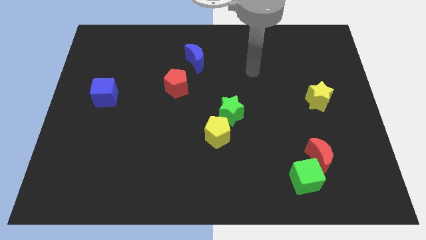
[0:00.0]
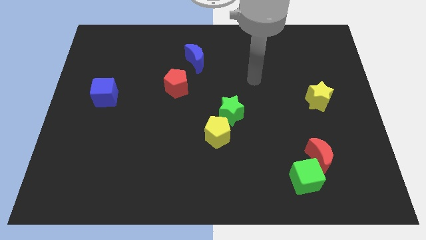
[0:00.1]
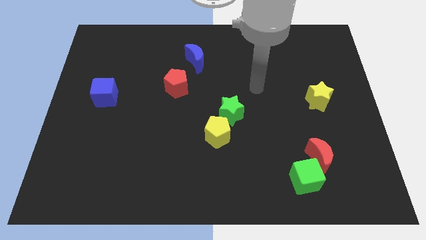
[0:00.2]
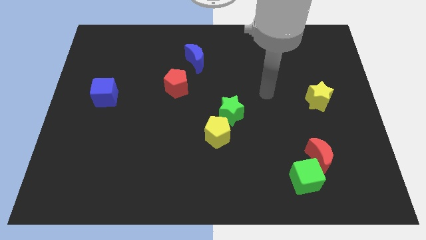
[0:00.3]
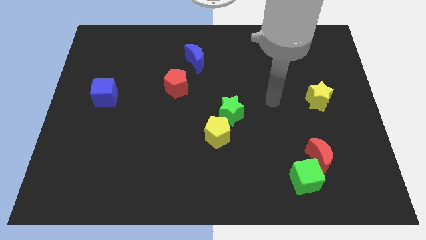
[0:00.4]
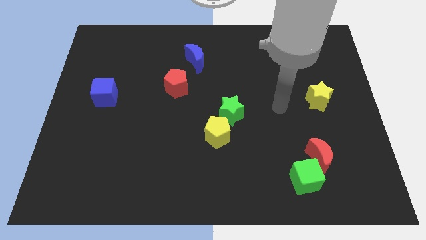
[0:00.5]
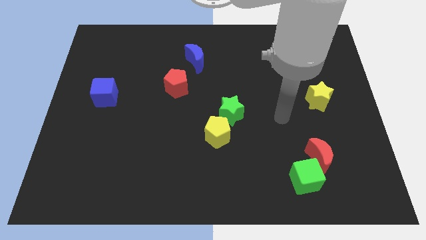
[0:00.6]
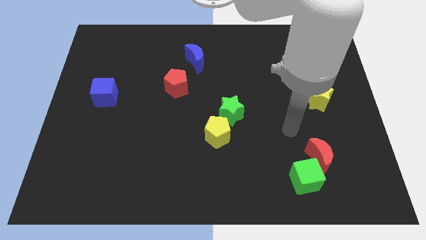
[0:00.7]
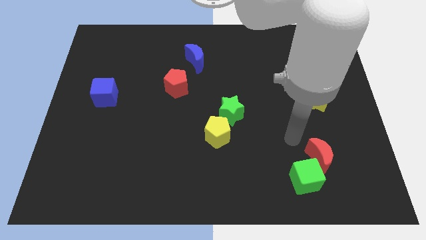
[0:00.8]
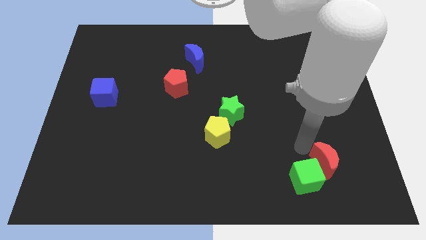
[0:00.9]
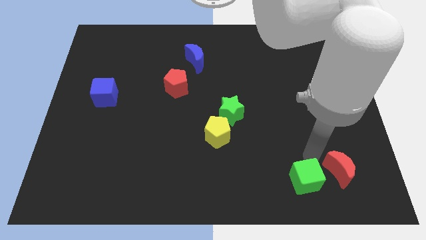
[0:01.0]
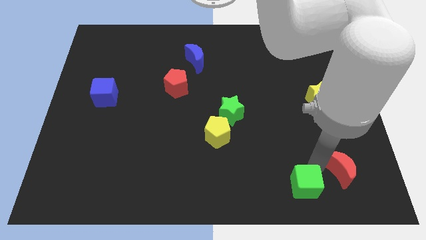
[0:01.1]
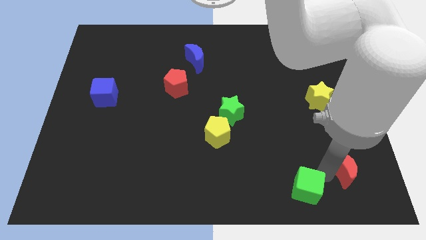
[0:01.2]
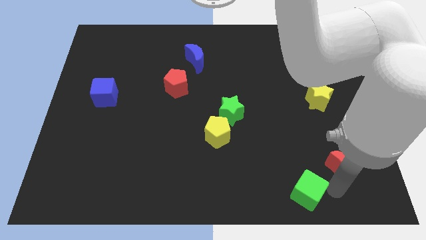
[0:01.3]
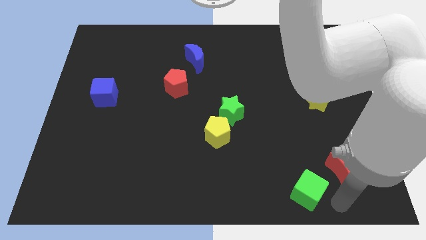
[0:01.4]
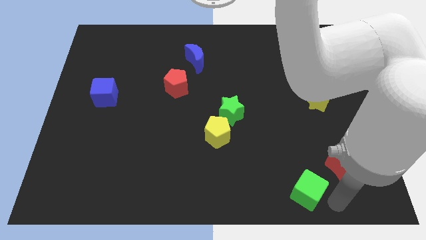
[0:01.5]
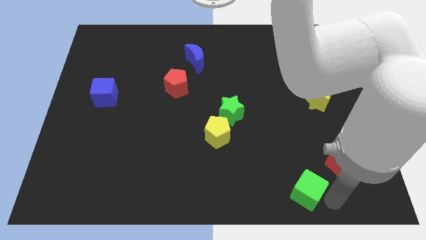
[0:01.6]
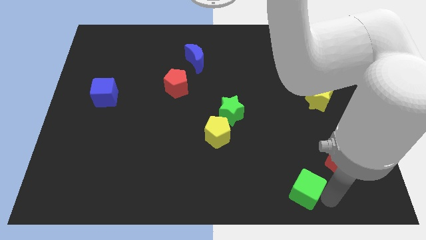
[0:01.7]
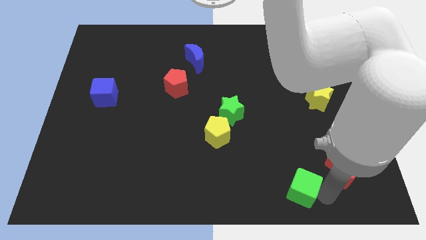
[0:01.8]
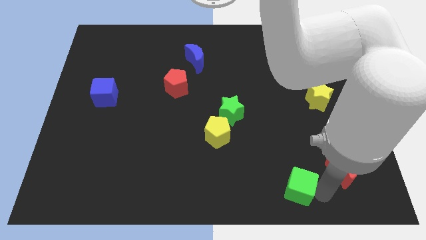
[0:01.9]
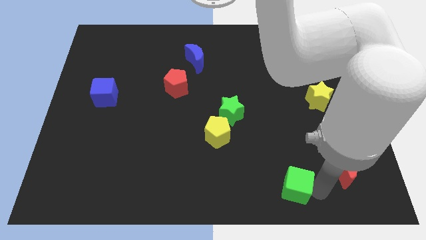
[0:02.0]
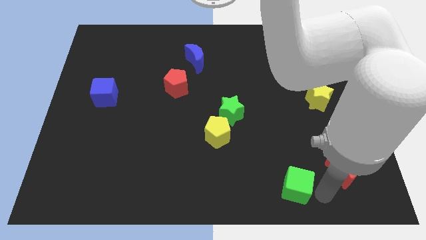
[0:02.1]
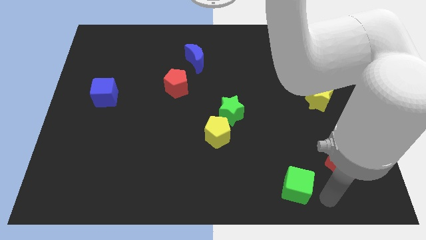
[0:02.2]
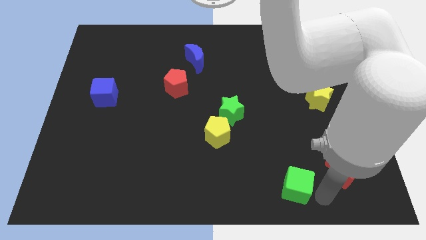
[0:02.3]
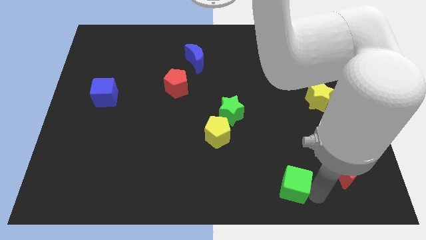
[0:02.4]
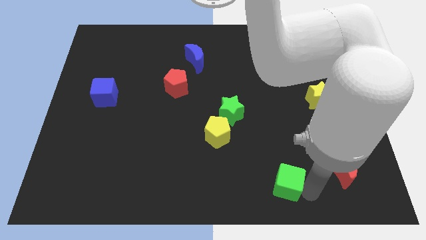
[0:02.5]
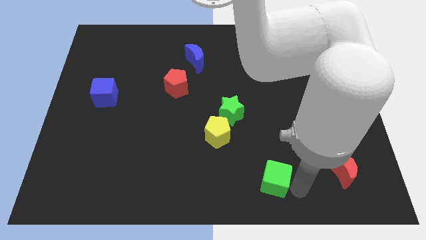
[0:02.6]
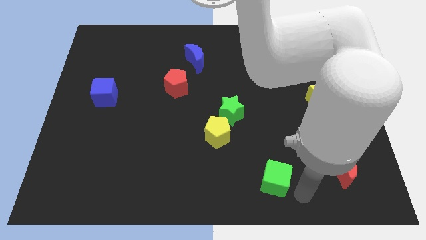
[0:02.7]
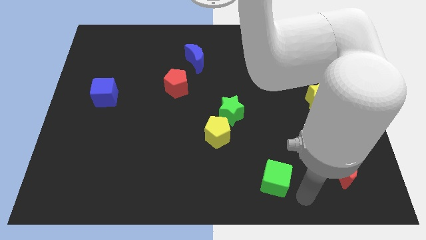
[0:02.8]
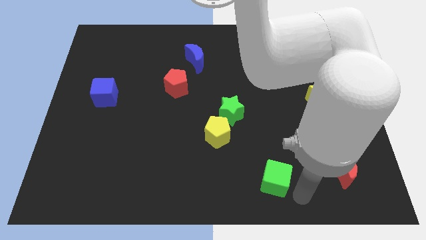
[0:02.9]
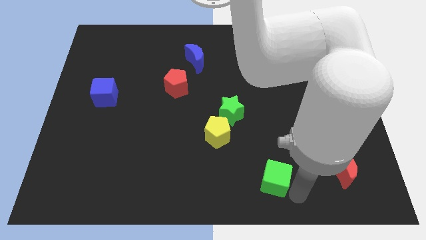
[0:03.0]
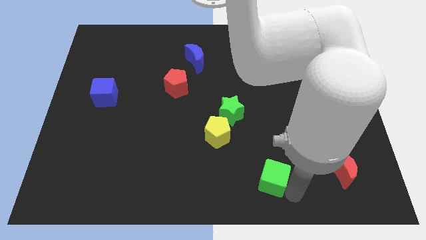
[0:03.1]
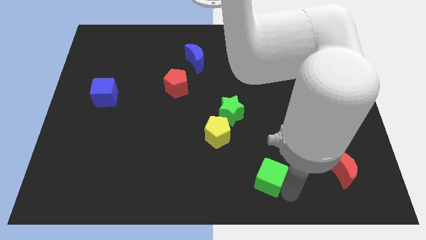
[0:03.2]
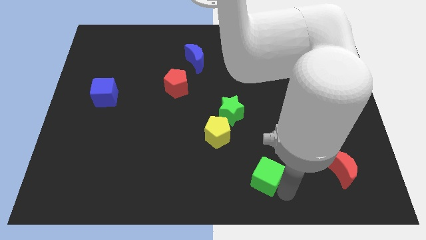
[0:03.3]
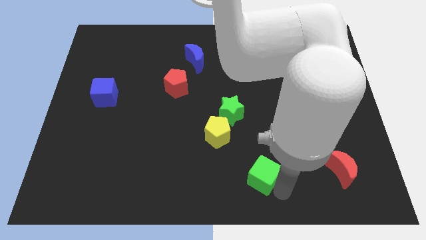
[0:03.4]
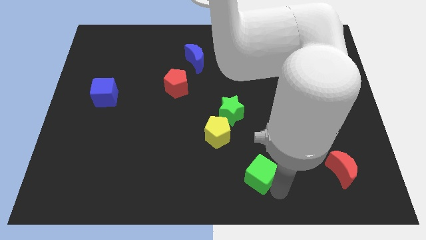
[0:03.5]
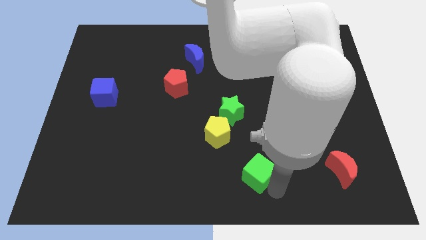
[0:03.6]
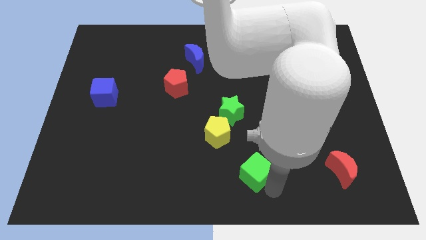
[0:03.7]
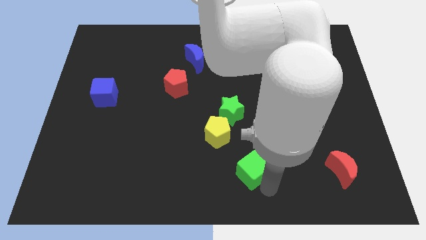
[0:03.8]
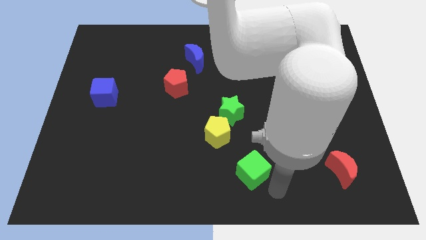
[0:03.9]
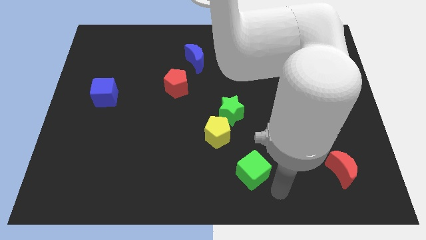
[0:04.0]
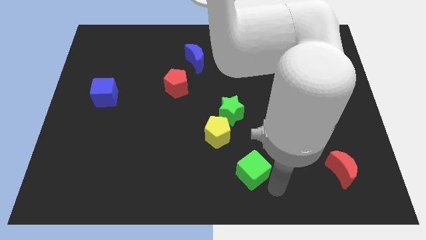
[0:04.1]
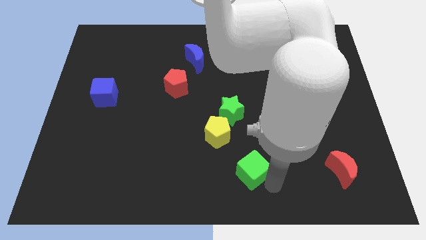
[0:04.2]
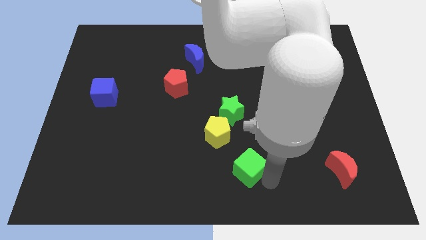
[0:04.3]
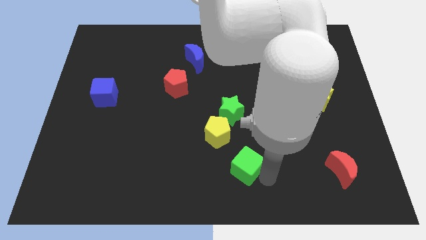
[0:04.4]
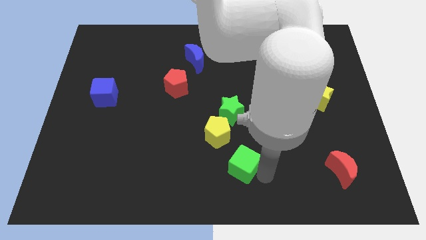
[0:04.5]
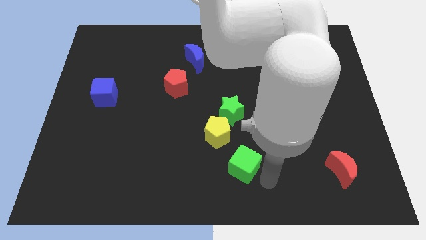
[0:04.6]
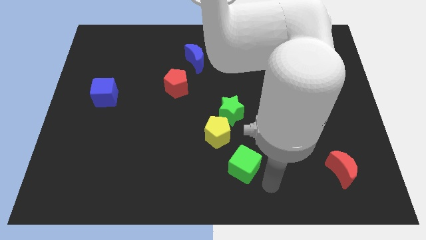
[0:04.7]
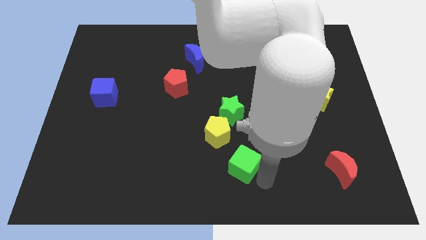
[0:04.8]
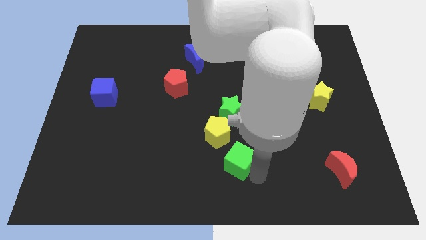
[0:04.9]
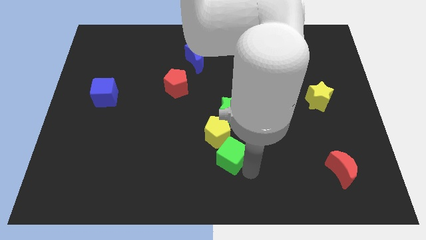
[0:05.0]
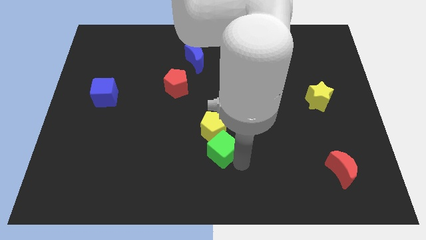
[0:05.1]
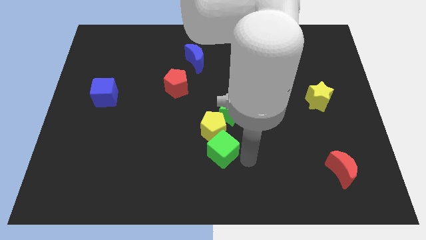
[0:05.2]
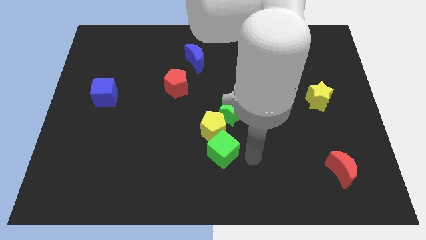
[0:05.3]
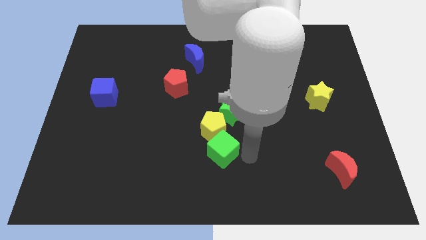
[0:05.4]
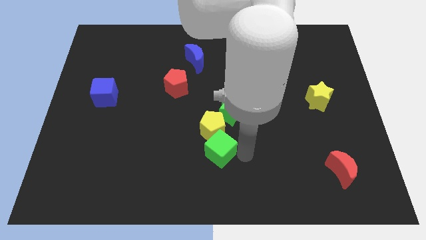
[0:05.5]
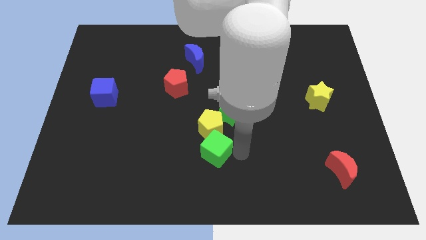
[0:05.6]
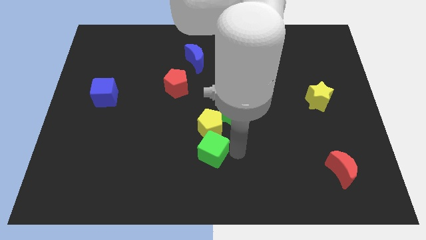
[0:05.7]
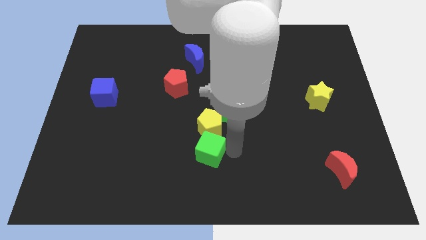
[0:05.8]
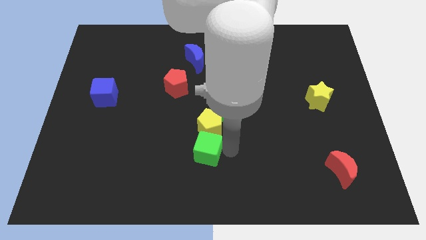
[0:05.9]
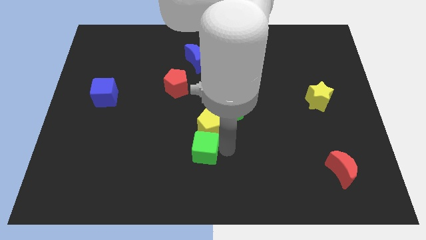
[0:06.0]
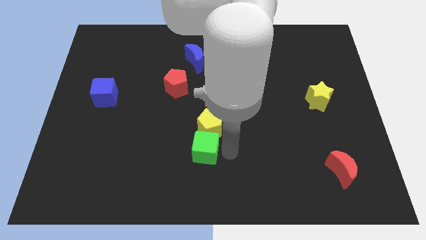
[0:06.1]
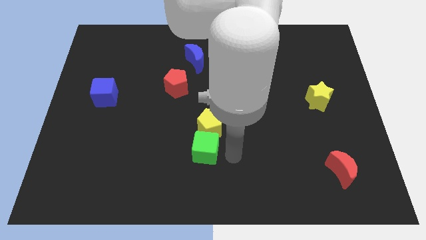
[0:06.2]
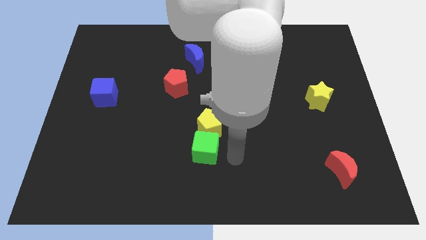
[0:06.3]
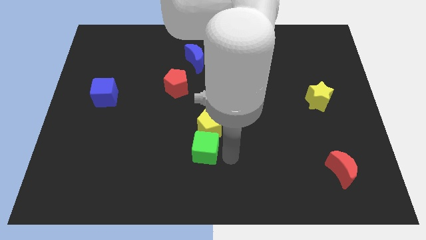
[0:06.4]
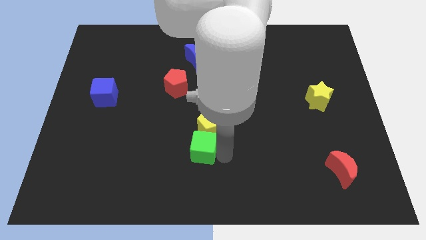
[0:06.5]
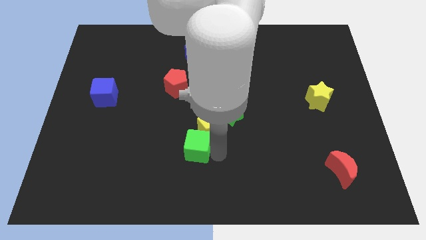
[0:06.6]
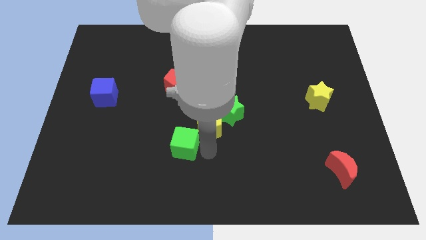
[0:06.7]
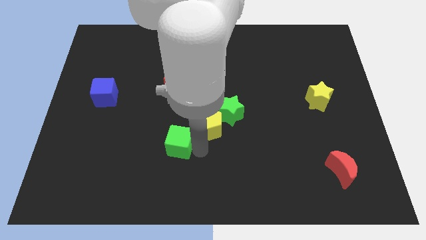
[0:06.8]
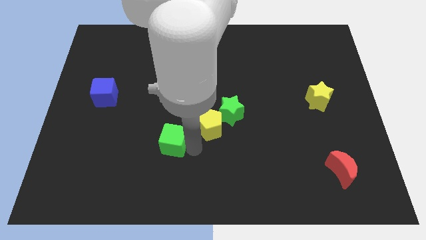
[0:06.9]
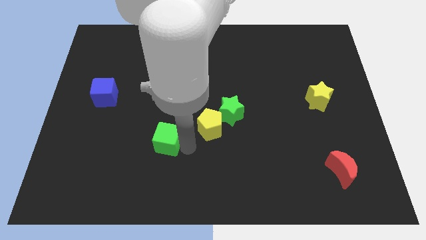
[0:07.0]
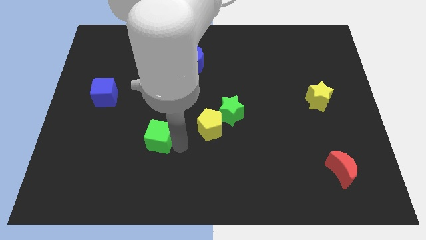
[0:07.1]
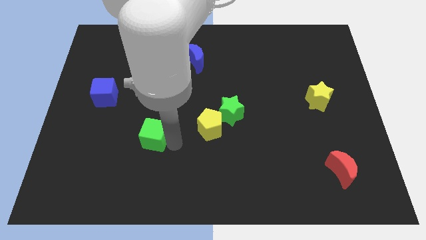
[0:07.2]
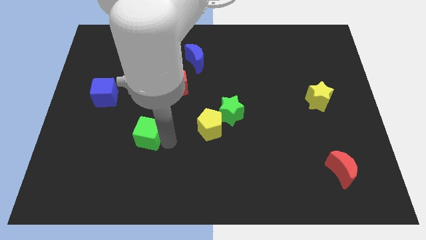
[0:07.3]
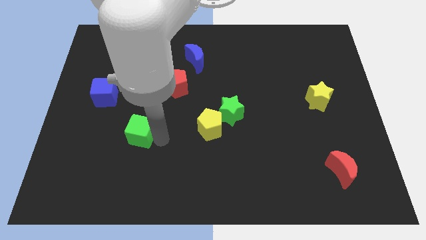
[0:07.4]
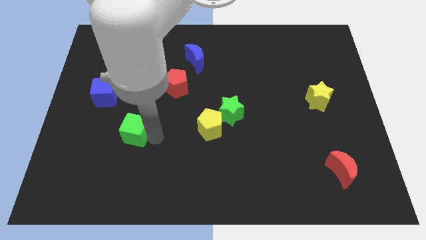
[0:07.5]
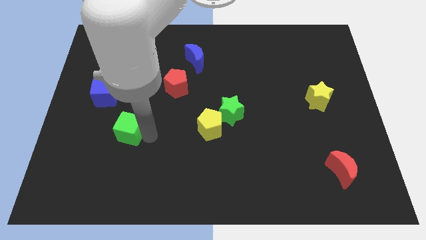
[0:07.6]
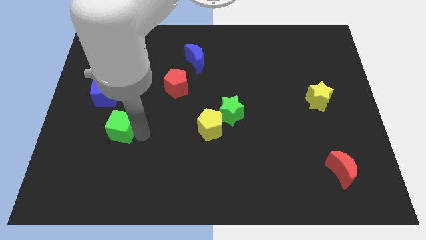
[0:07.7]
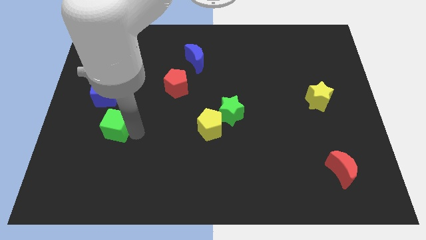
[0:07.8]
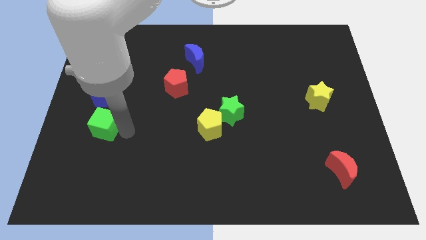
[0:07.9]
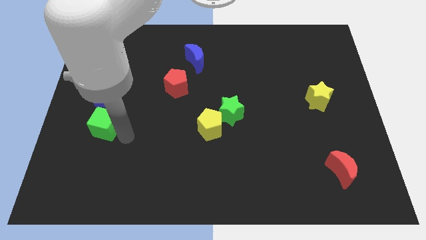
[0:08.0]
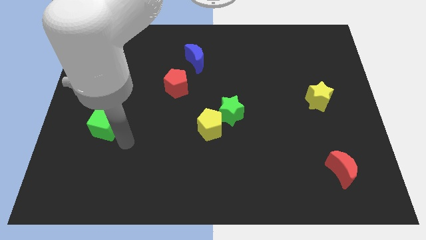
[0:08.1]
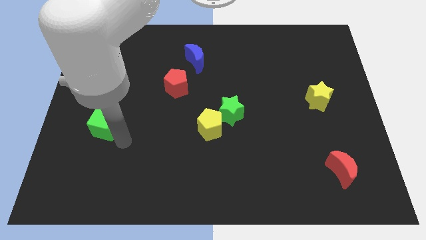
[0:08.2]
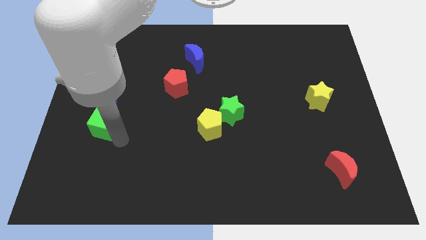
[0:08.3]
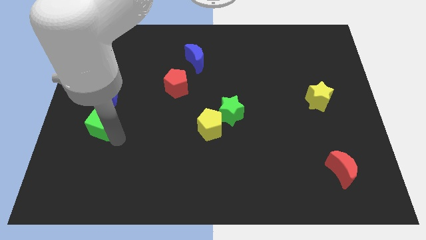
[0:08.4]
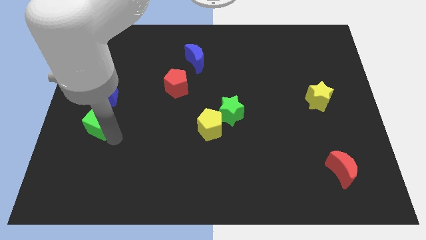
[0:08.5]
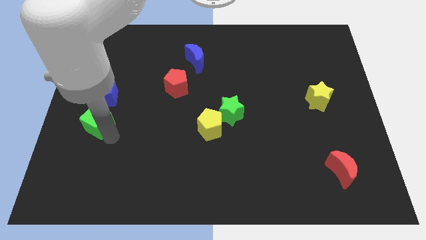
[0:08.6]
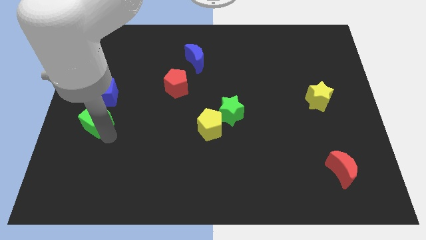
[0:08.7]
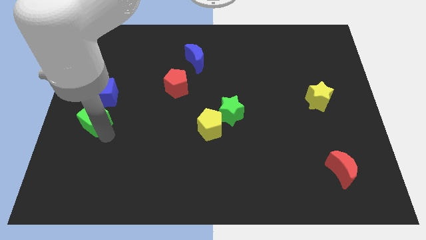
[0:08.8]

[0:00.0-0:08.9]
move the green cube to the left side of the board
